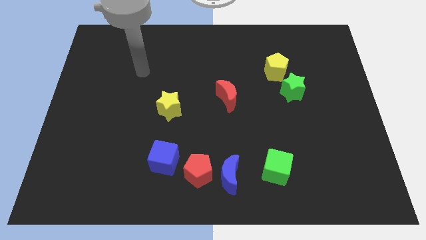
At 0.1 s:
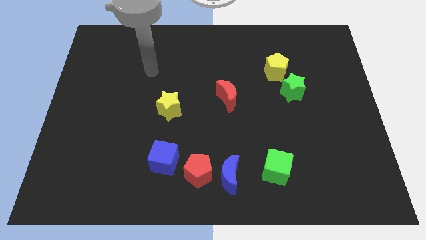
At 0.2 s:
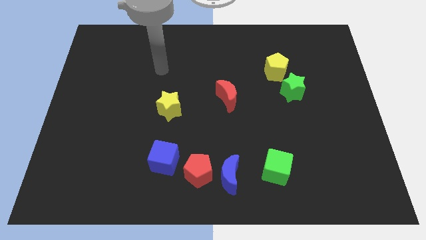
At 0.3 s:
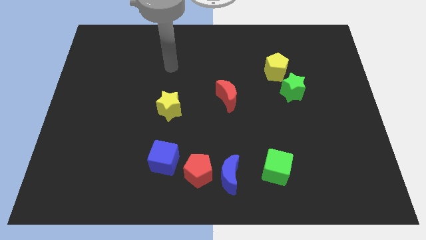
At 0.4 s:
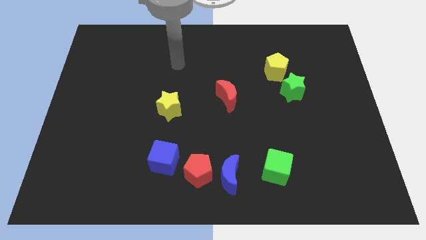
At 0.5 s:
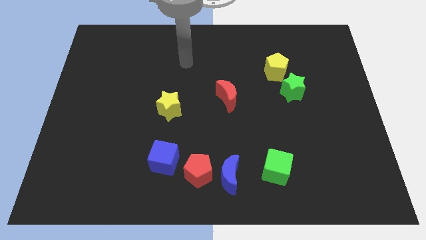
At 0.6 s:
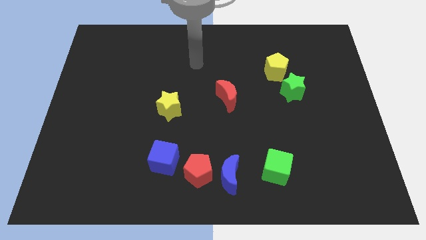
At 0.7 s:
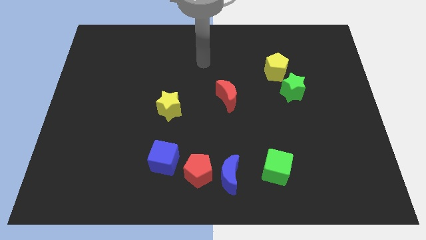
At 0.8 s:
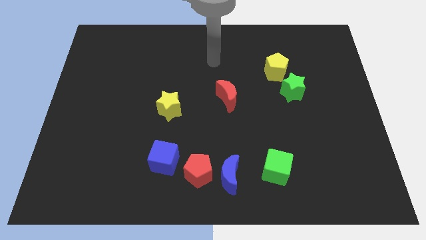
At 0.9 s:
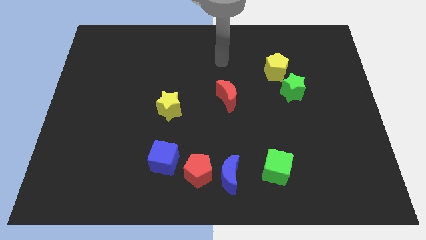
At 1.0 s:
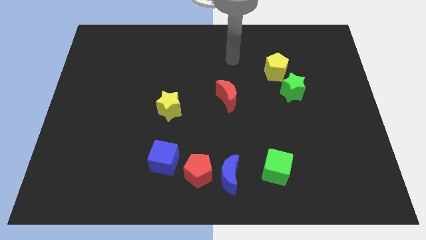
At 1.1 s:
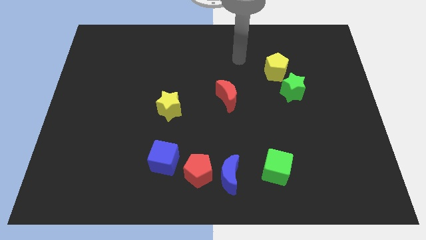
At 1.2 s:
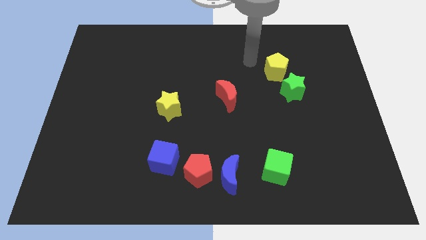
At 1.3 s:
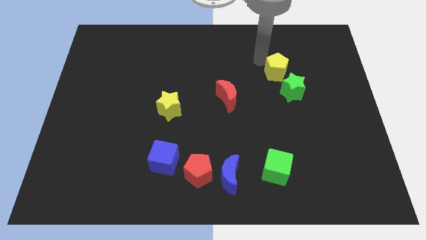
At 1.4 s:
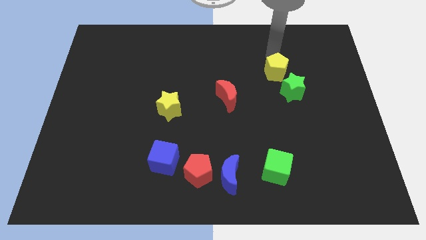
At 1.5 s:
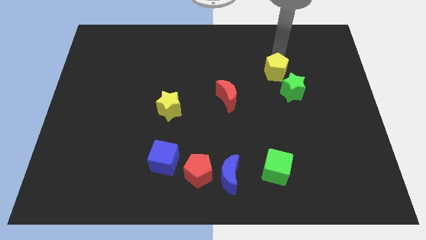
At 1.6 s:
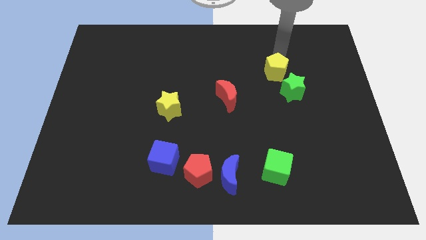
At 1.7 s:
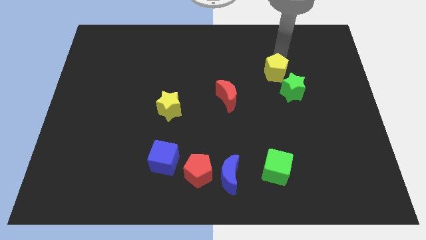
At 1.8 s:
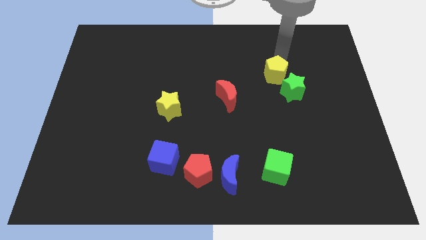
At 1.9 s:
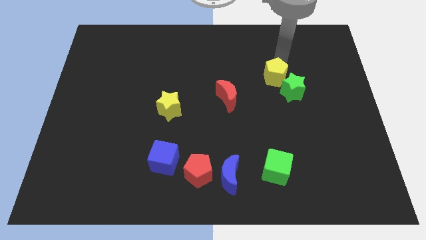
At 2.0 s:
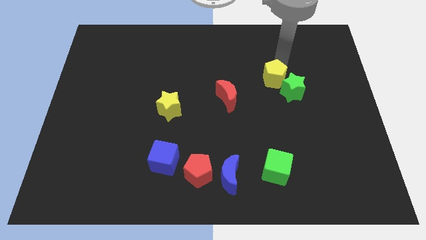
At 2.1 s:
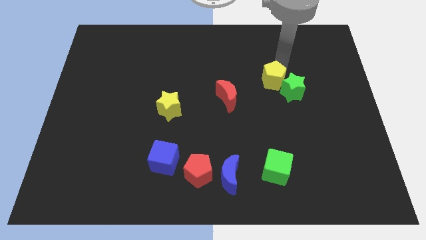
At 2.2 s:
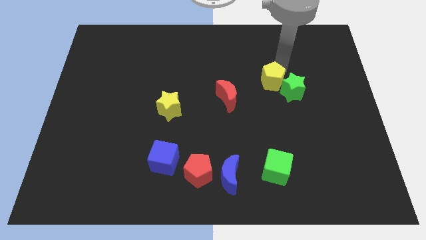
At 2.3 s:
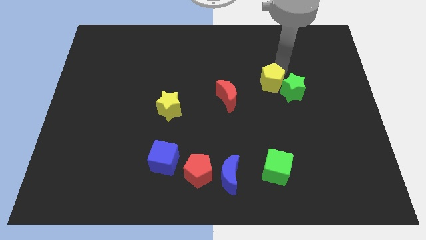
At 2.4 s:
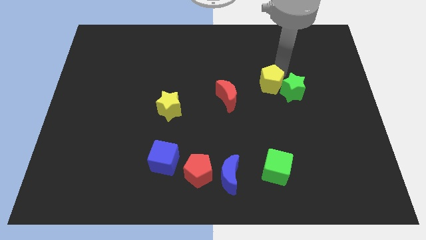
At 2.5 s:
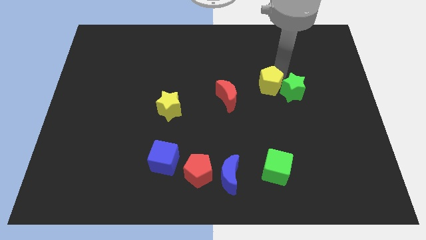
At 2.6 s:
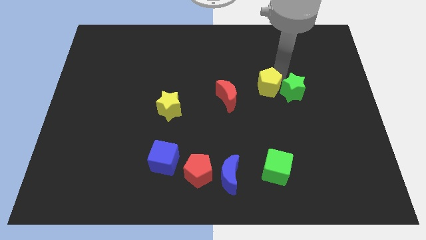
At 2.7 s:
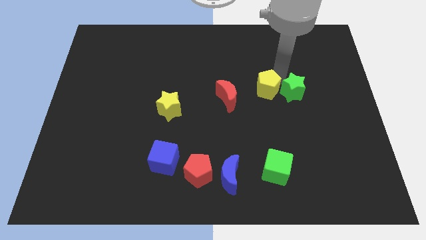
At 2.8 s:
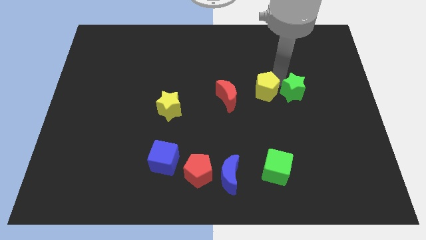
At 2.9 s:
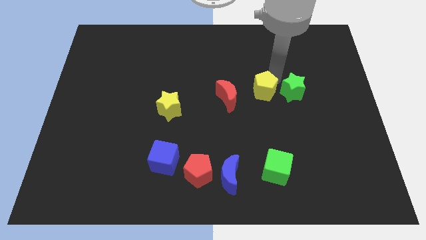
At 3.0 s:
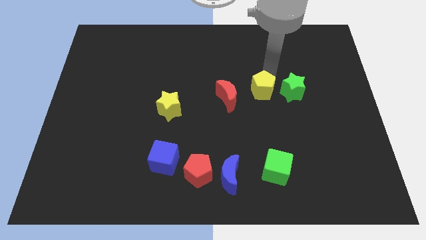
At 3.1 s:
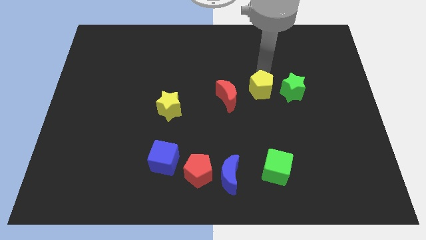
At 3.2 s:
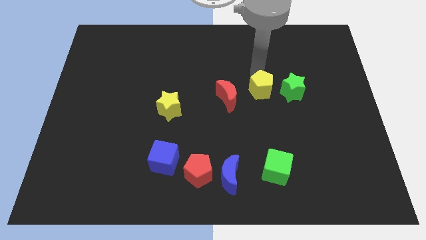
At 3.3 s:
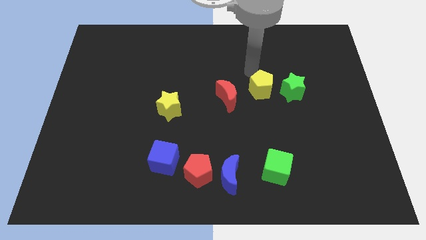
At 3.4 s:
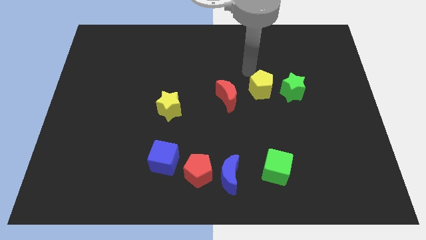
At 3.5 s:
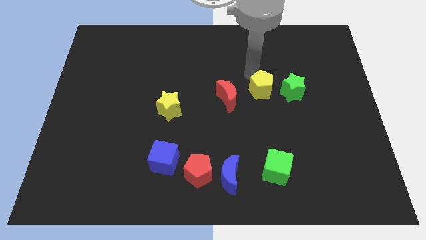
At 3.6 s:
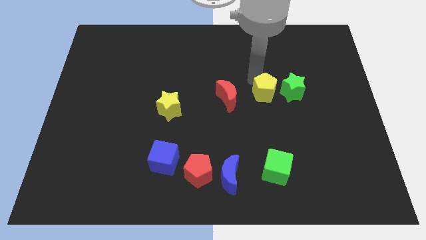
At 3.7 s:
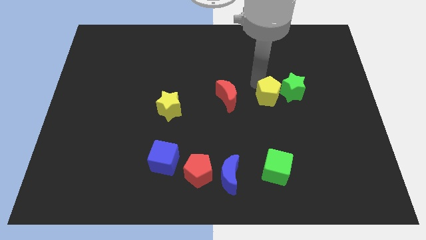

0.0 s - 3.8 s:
move the yellow pentagon a little bit downwards

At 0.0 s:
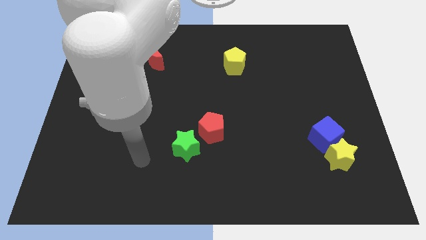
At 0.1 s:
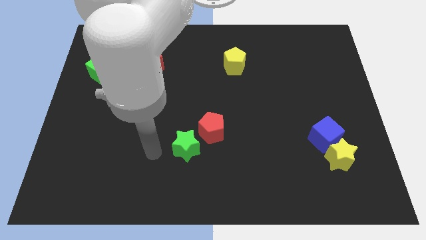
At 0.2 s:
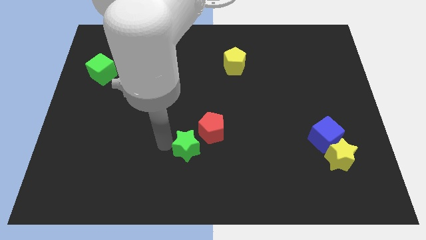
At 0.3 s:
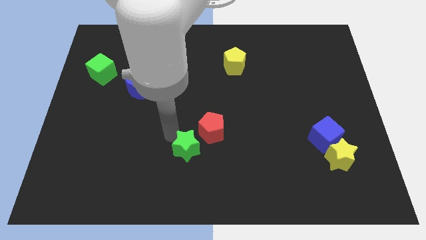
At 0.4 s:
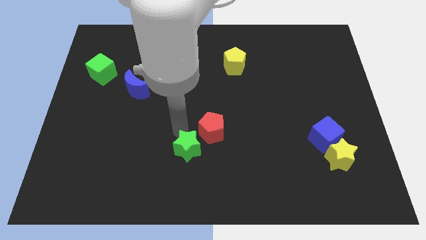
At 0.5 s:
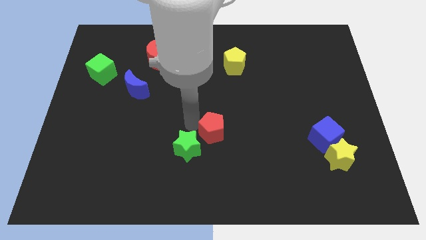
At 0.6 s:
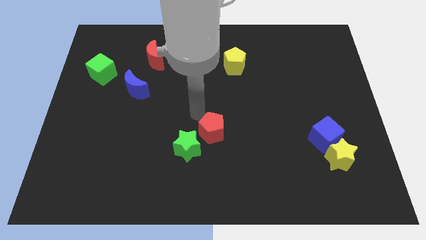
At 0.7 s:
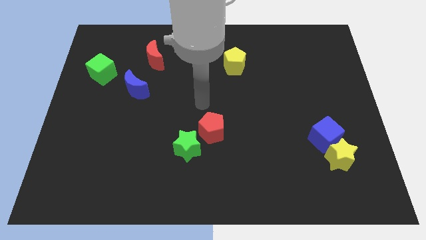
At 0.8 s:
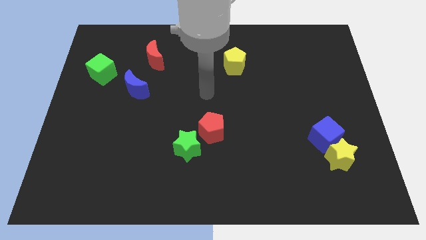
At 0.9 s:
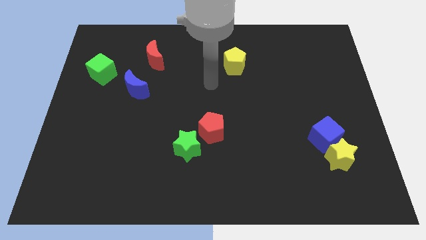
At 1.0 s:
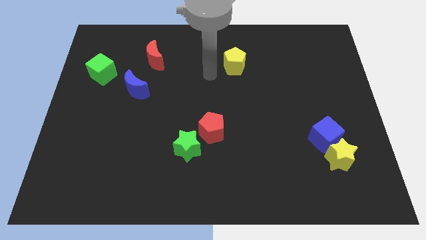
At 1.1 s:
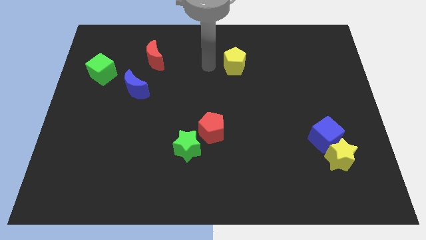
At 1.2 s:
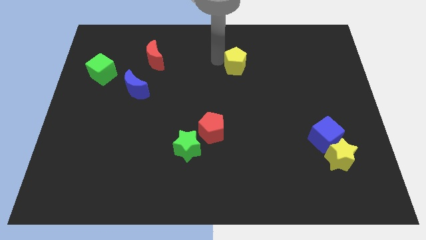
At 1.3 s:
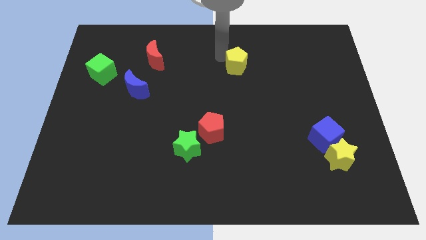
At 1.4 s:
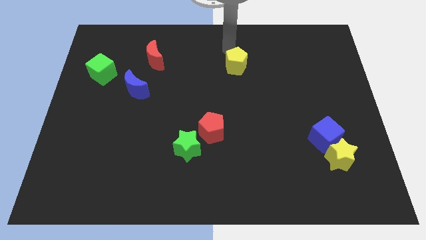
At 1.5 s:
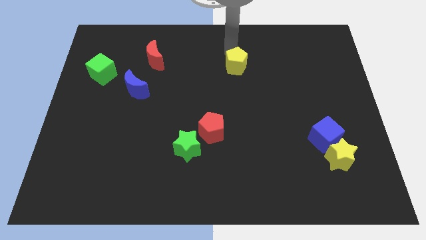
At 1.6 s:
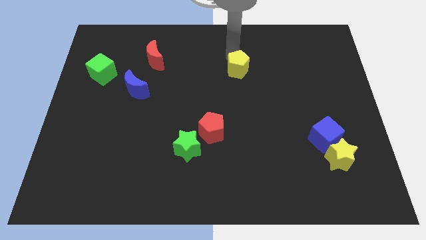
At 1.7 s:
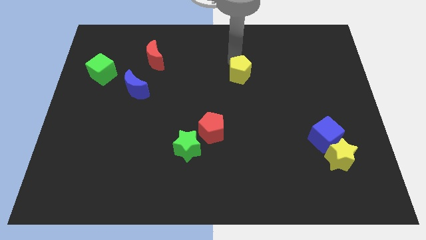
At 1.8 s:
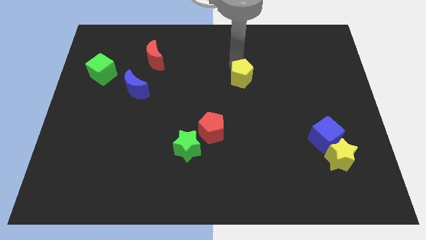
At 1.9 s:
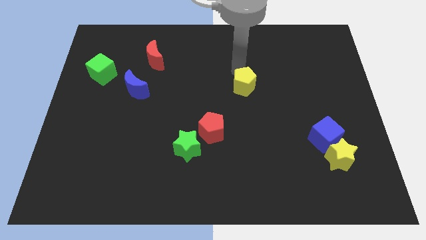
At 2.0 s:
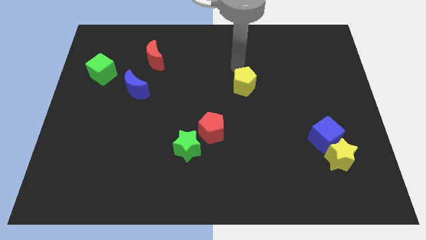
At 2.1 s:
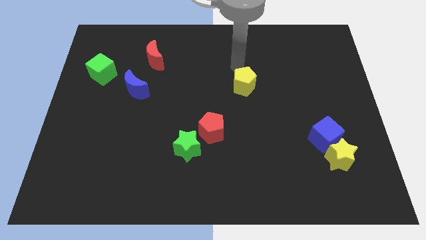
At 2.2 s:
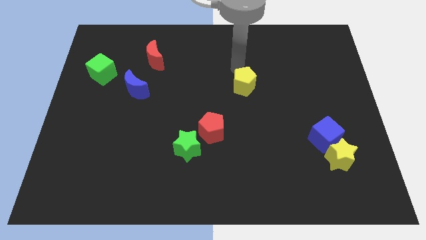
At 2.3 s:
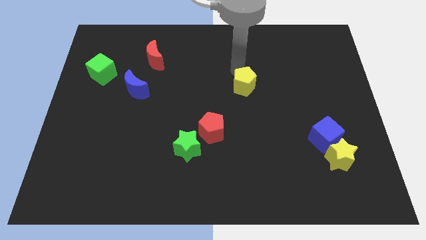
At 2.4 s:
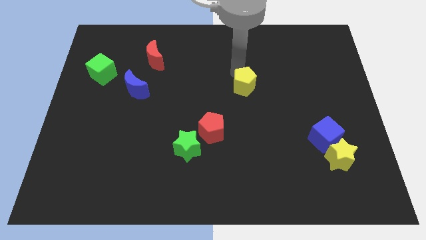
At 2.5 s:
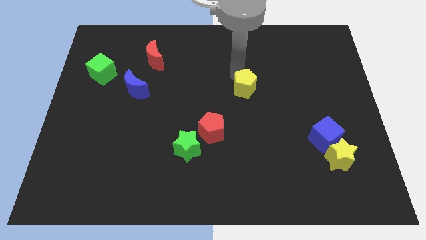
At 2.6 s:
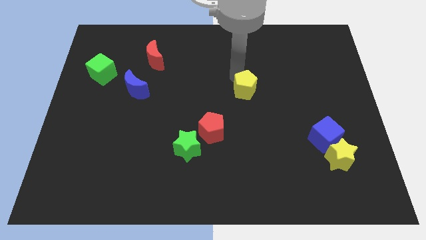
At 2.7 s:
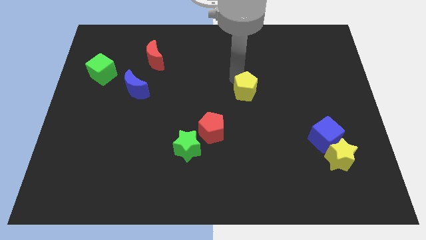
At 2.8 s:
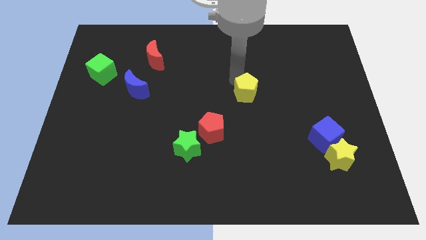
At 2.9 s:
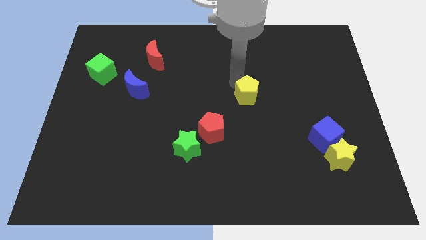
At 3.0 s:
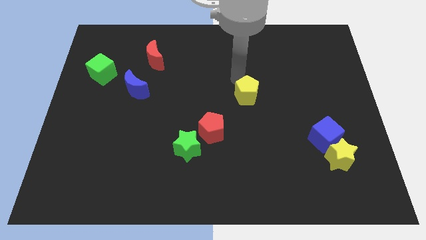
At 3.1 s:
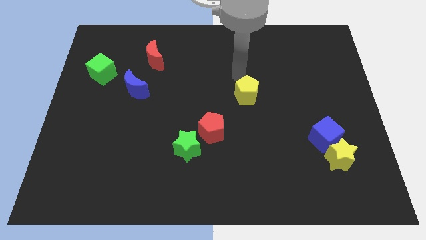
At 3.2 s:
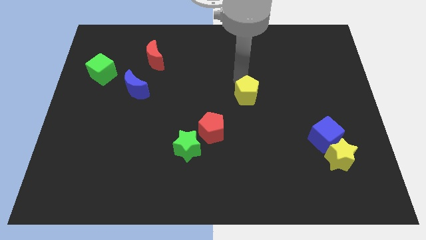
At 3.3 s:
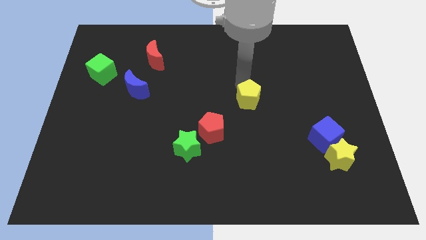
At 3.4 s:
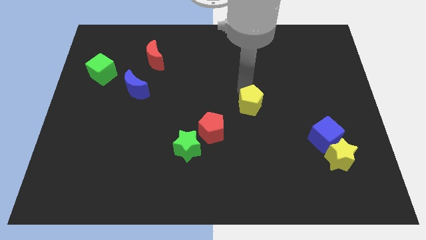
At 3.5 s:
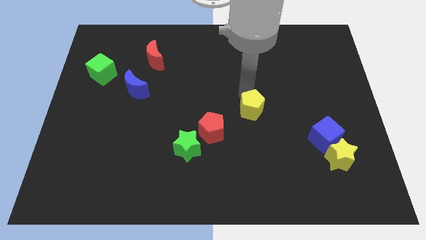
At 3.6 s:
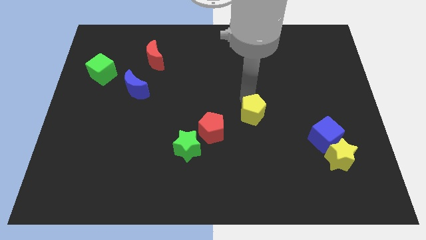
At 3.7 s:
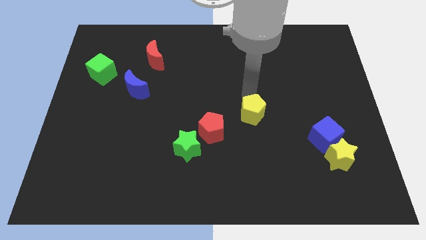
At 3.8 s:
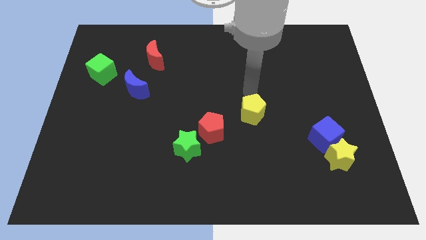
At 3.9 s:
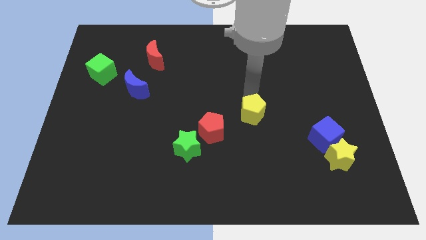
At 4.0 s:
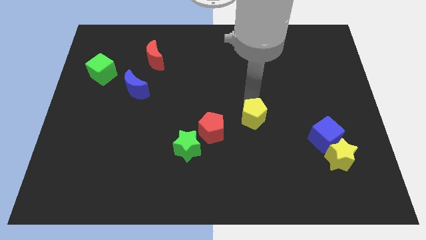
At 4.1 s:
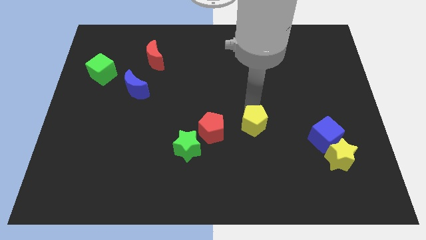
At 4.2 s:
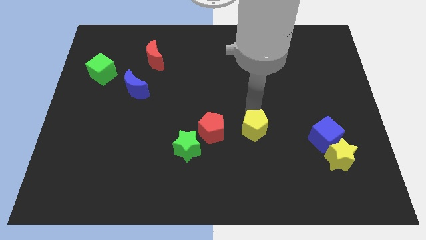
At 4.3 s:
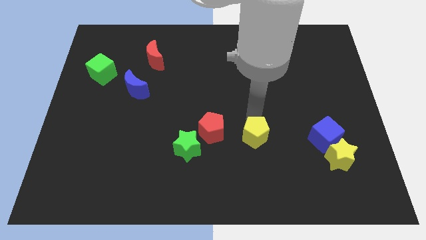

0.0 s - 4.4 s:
move the yellow pentagon down
